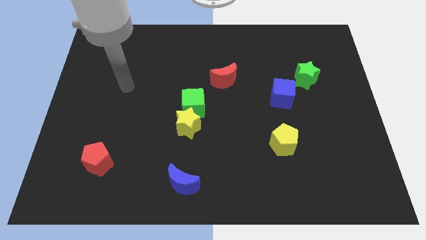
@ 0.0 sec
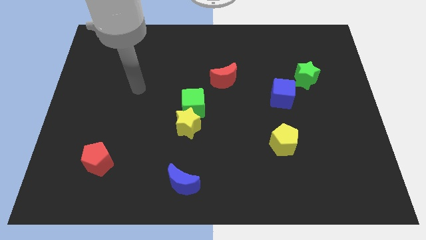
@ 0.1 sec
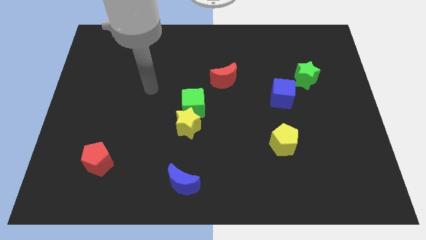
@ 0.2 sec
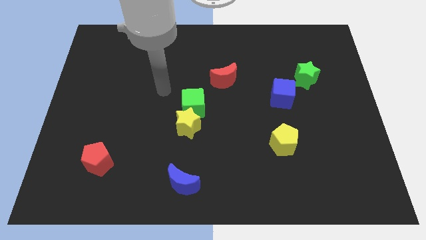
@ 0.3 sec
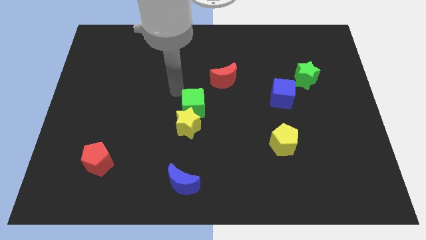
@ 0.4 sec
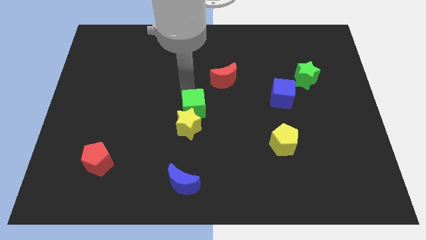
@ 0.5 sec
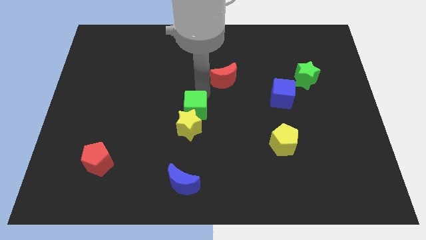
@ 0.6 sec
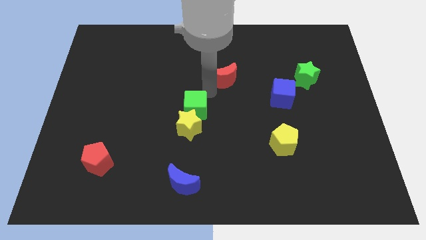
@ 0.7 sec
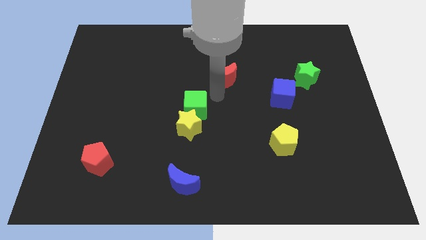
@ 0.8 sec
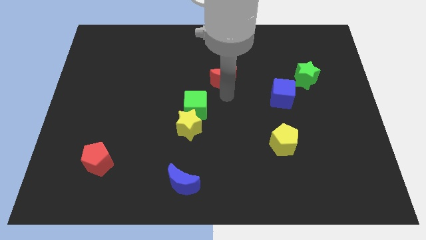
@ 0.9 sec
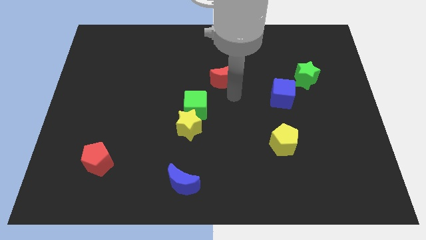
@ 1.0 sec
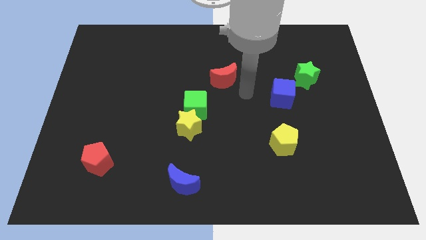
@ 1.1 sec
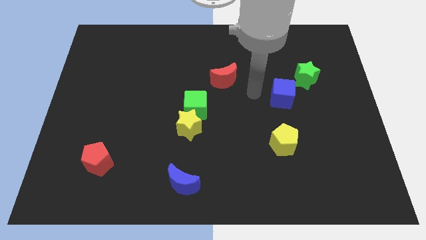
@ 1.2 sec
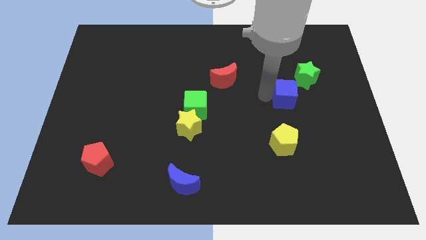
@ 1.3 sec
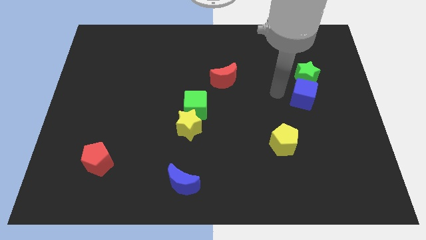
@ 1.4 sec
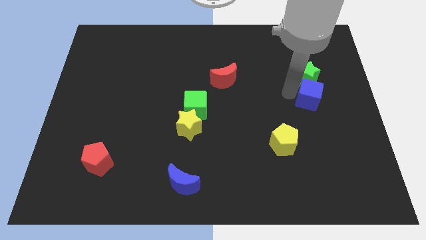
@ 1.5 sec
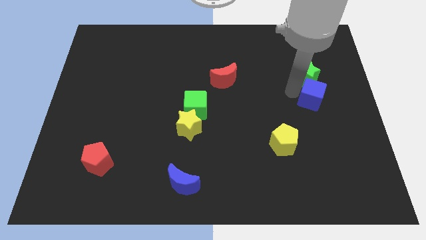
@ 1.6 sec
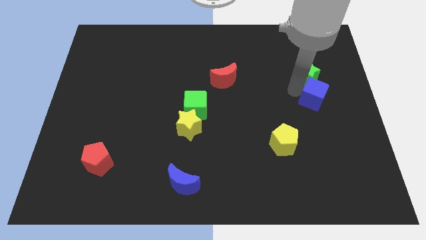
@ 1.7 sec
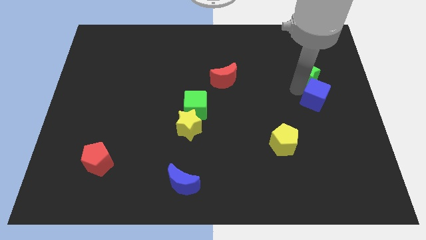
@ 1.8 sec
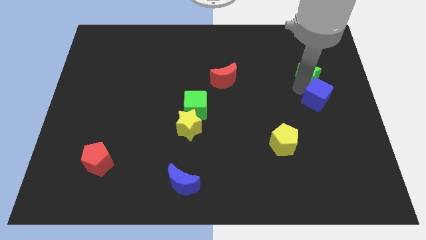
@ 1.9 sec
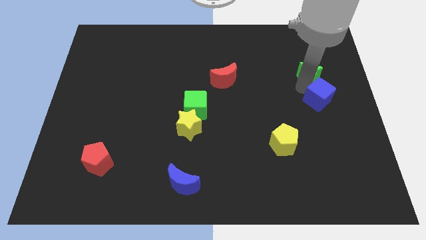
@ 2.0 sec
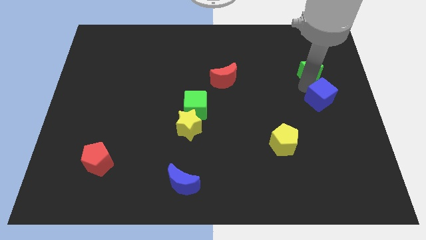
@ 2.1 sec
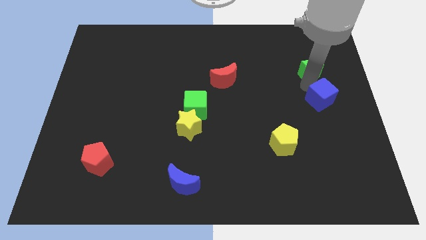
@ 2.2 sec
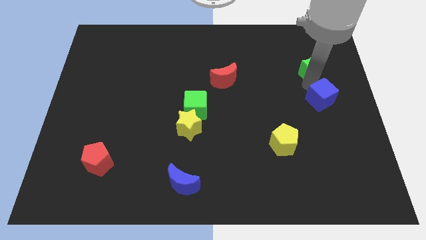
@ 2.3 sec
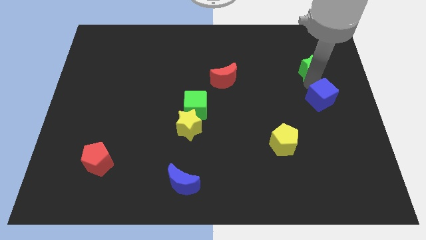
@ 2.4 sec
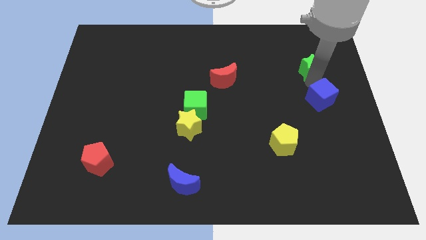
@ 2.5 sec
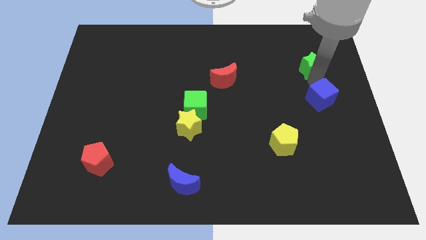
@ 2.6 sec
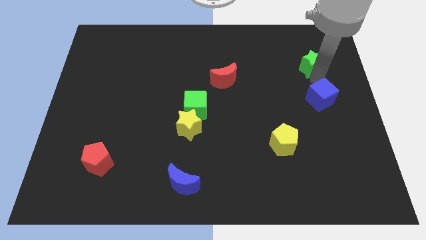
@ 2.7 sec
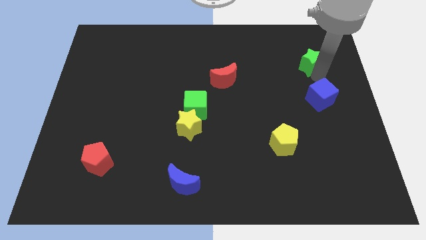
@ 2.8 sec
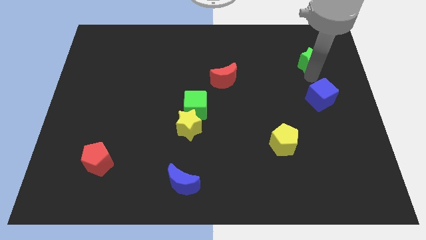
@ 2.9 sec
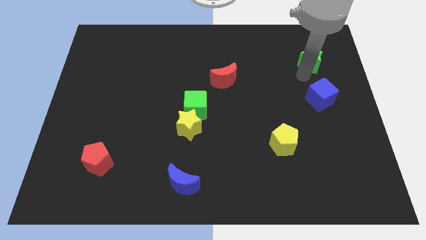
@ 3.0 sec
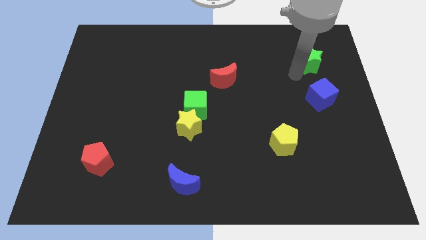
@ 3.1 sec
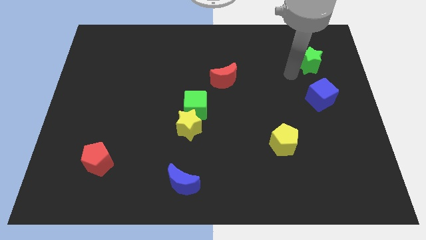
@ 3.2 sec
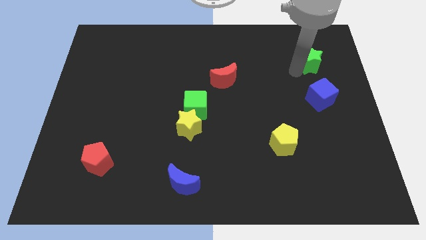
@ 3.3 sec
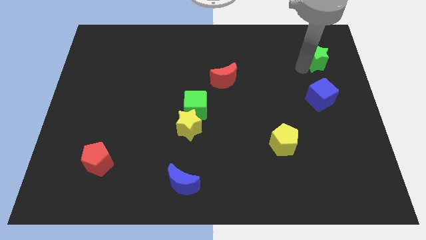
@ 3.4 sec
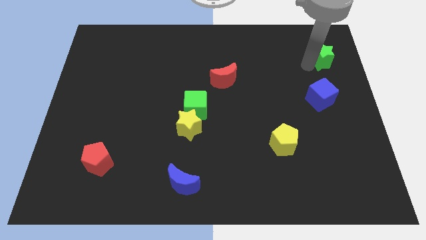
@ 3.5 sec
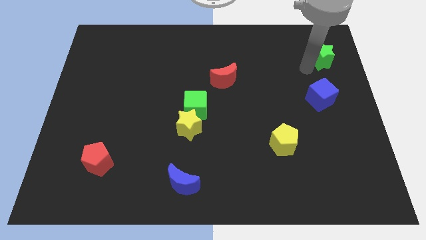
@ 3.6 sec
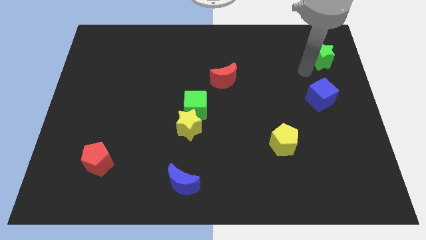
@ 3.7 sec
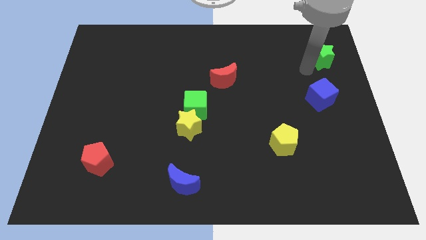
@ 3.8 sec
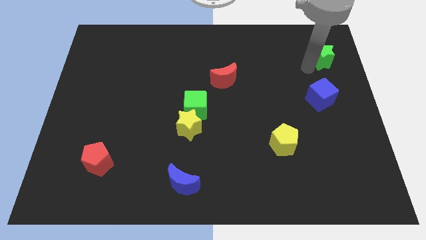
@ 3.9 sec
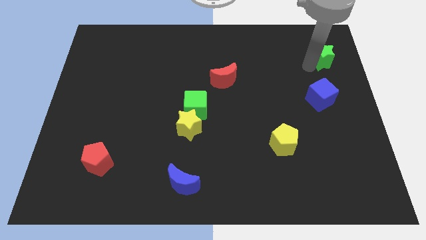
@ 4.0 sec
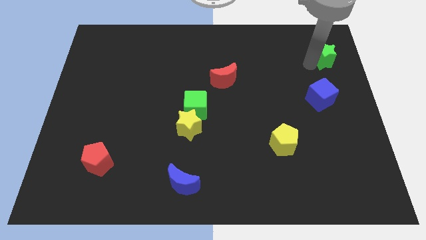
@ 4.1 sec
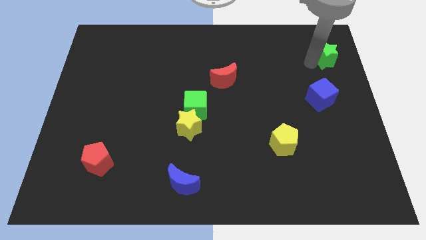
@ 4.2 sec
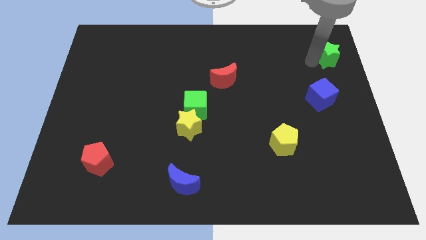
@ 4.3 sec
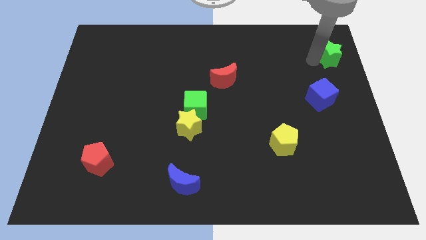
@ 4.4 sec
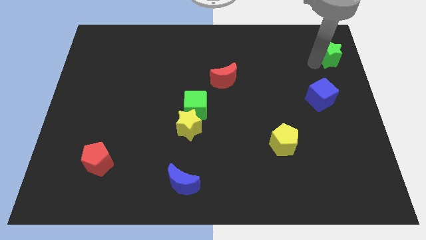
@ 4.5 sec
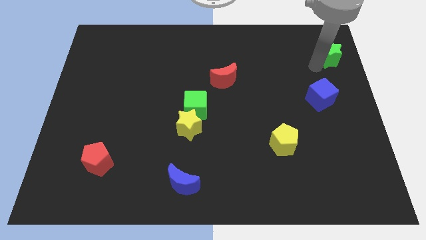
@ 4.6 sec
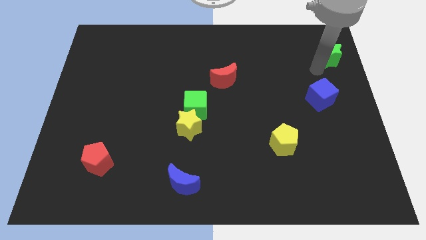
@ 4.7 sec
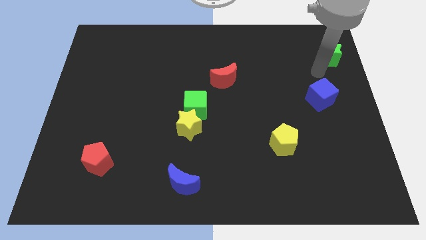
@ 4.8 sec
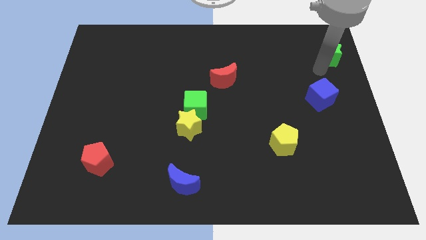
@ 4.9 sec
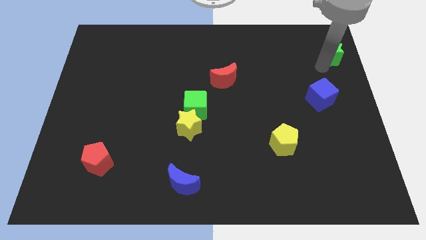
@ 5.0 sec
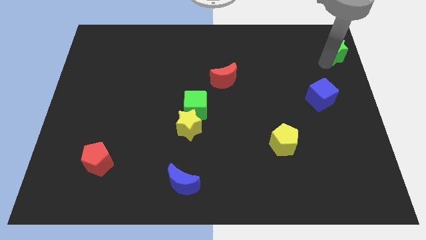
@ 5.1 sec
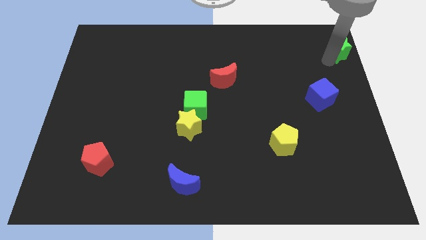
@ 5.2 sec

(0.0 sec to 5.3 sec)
slide the green star to the top right corner

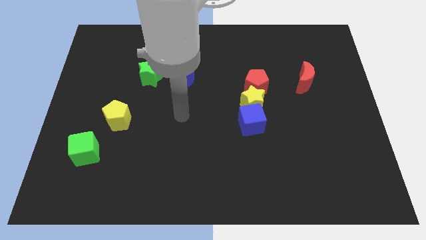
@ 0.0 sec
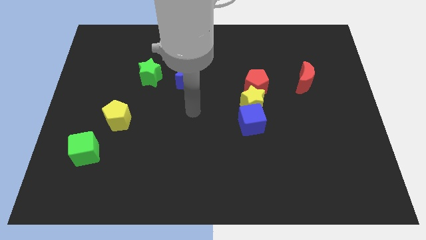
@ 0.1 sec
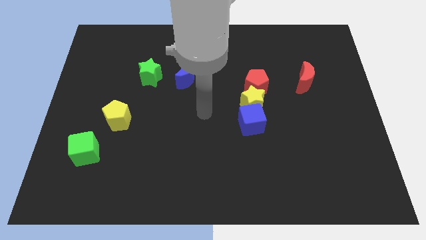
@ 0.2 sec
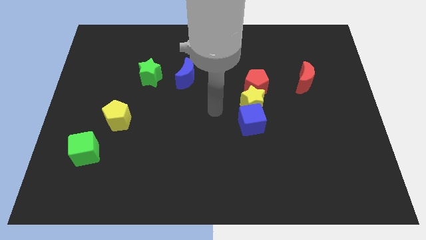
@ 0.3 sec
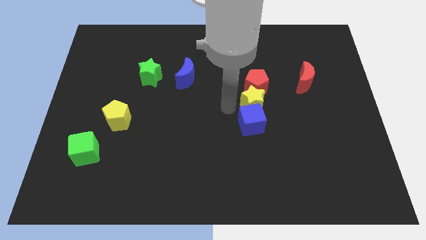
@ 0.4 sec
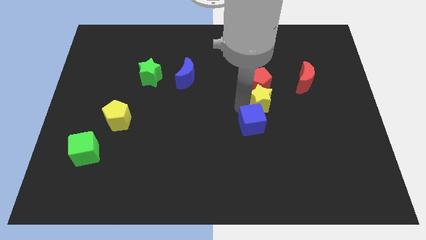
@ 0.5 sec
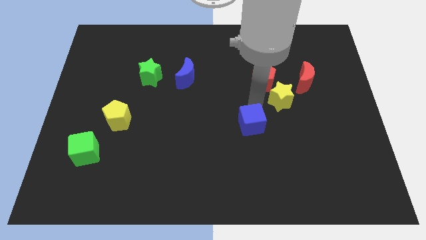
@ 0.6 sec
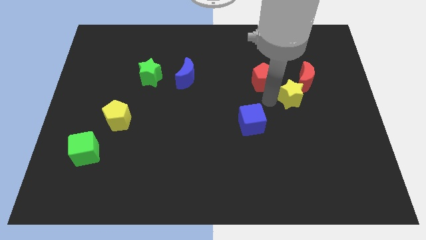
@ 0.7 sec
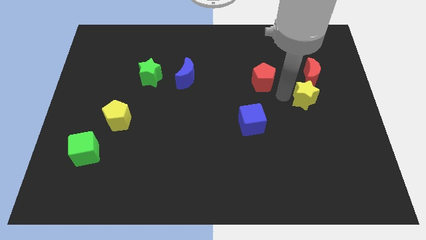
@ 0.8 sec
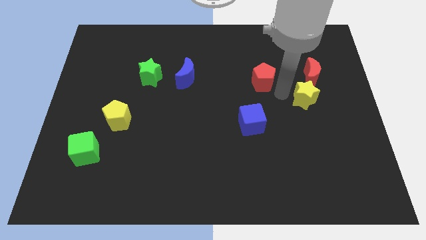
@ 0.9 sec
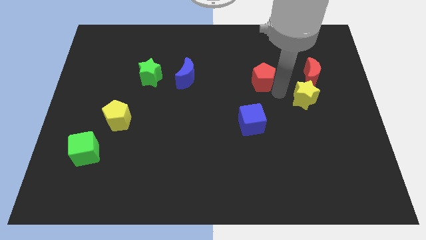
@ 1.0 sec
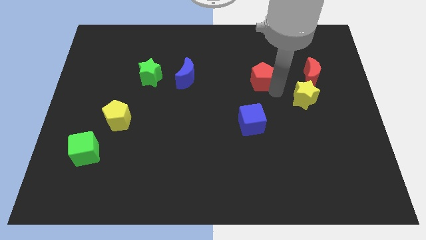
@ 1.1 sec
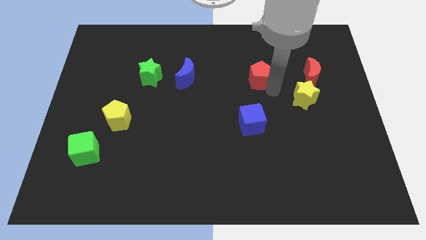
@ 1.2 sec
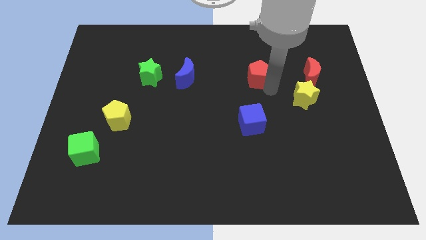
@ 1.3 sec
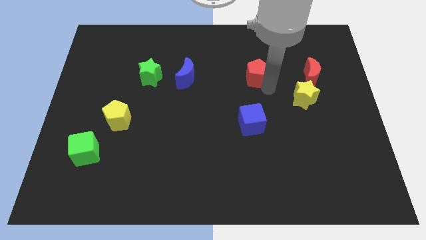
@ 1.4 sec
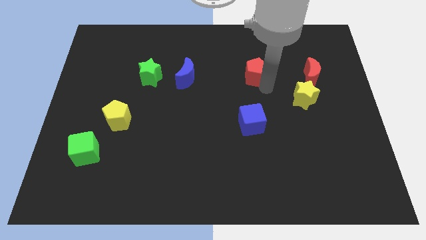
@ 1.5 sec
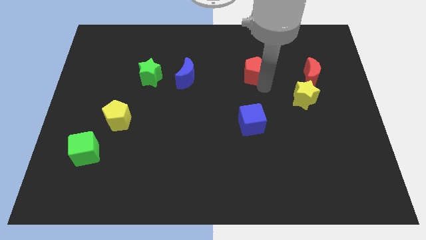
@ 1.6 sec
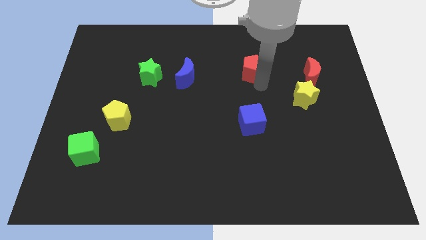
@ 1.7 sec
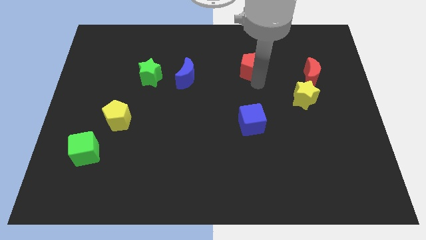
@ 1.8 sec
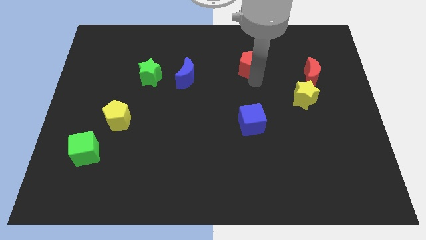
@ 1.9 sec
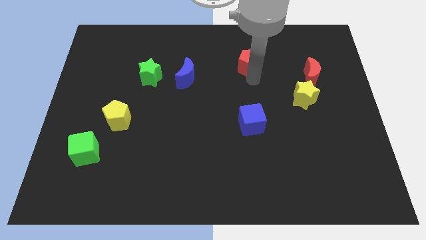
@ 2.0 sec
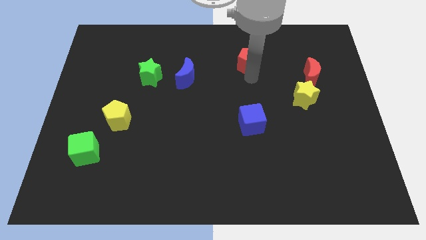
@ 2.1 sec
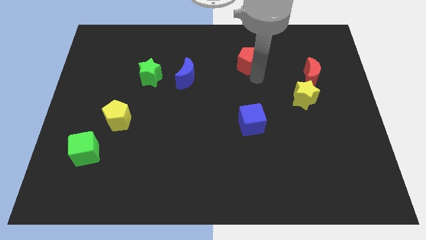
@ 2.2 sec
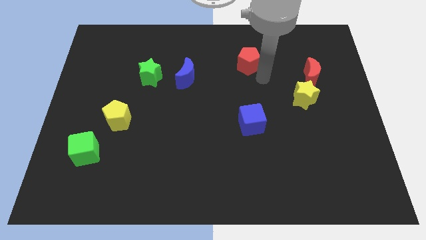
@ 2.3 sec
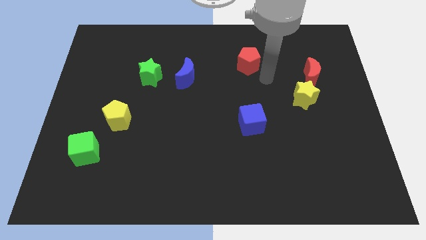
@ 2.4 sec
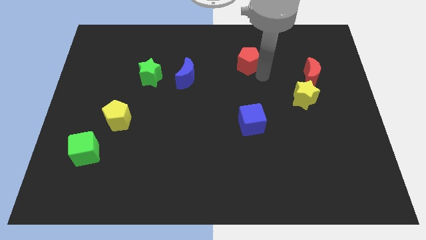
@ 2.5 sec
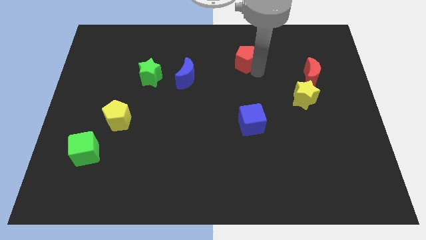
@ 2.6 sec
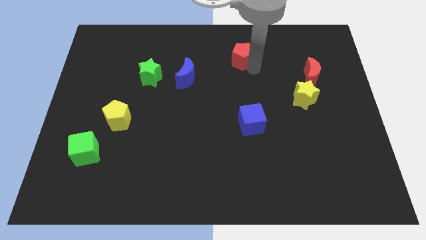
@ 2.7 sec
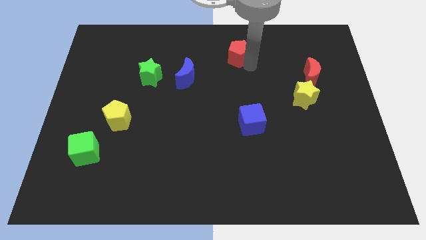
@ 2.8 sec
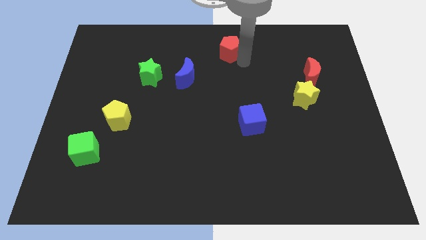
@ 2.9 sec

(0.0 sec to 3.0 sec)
push the red pentagon to the top side
